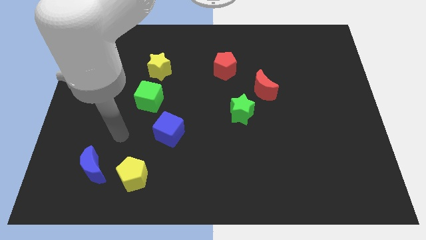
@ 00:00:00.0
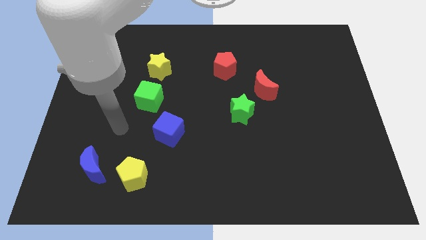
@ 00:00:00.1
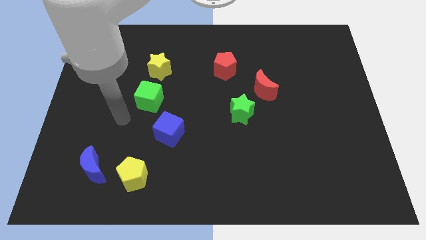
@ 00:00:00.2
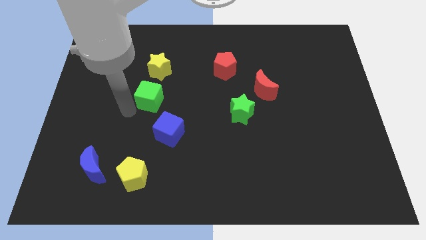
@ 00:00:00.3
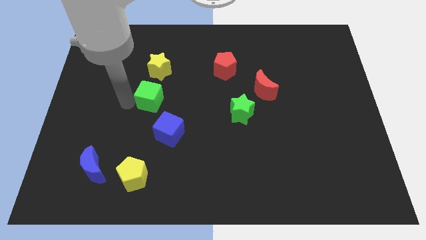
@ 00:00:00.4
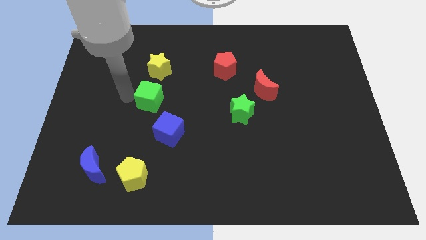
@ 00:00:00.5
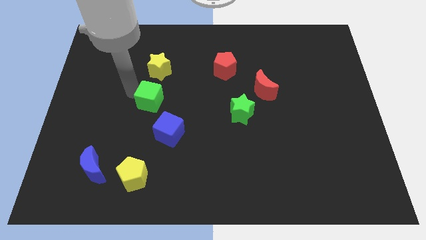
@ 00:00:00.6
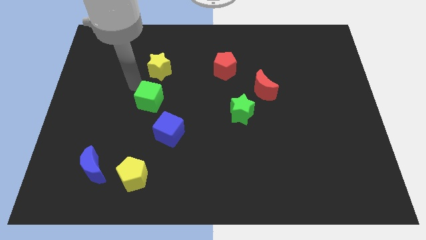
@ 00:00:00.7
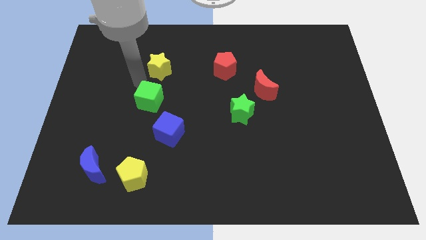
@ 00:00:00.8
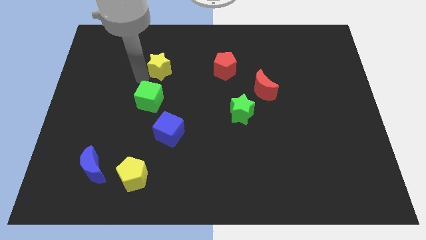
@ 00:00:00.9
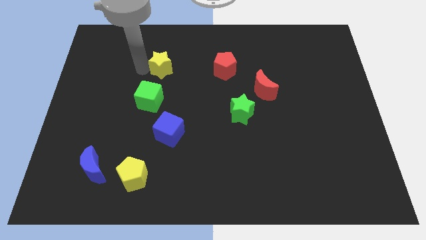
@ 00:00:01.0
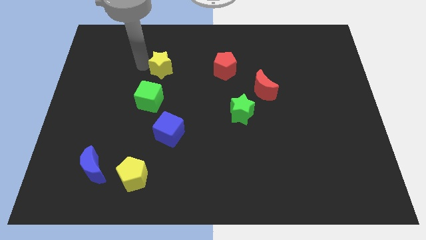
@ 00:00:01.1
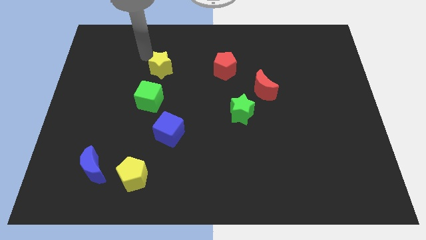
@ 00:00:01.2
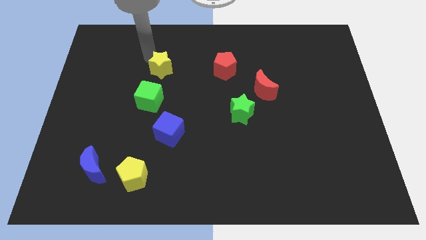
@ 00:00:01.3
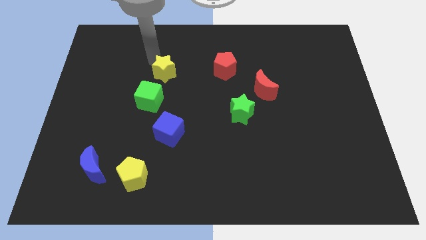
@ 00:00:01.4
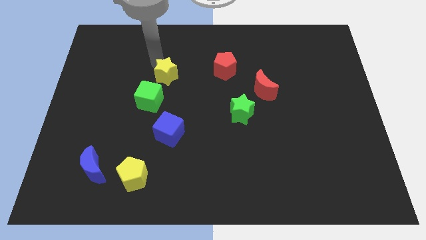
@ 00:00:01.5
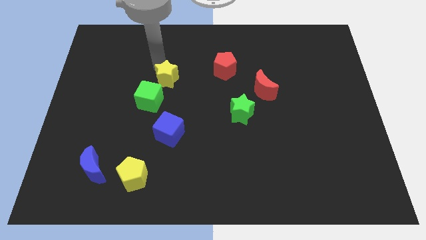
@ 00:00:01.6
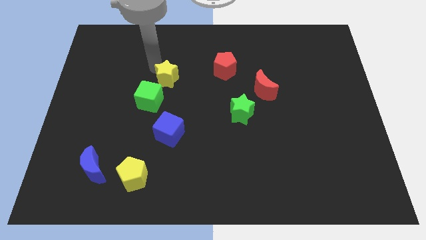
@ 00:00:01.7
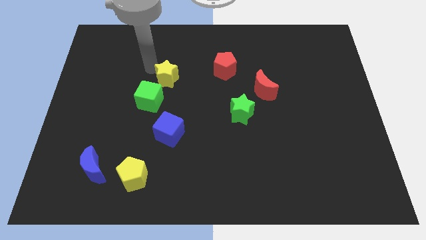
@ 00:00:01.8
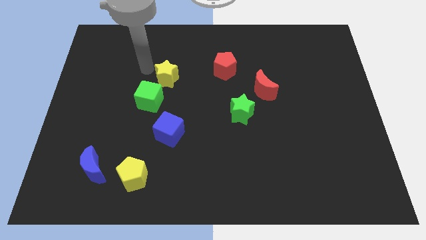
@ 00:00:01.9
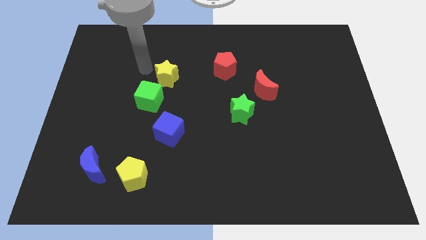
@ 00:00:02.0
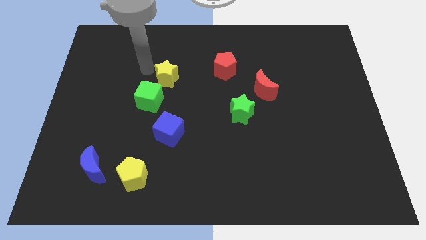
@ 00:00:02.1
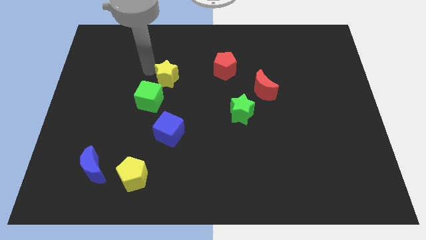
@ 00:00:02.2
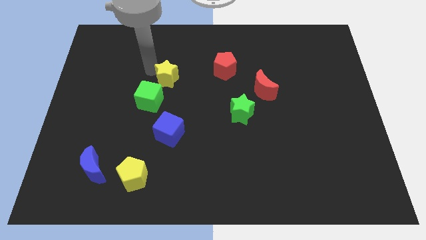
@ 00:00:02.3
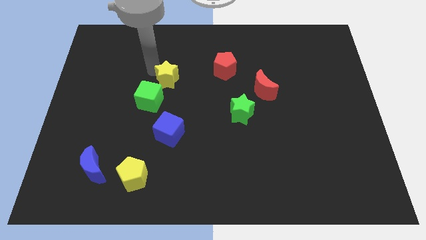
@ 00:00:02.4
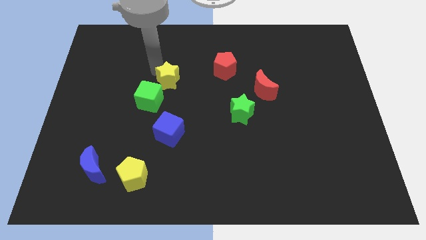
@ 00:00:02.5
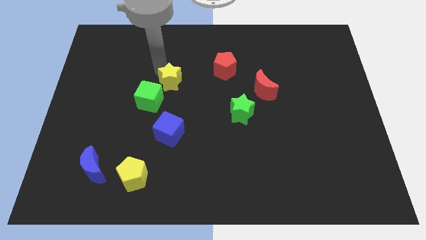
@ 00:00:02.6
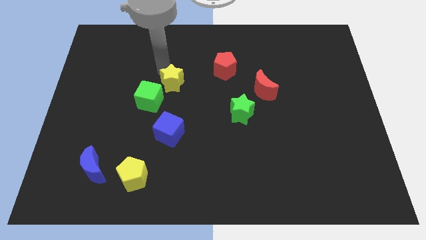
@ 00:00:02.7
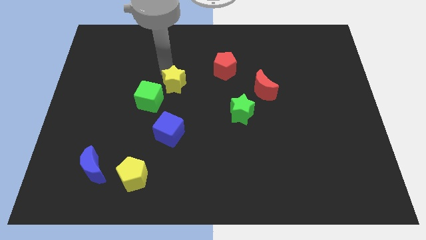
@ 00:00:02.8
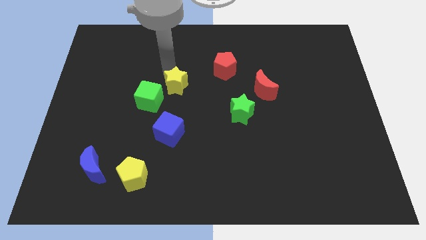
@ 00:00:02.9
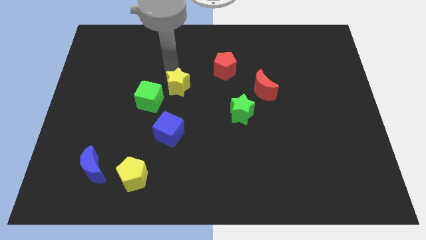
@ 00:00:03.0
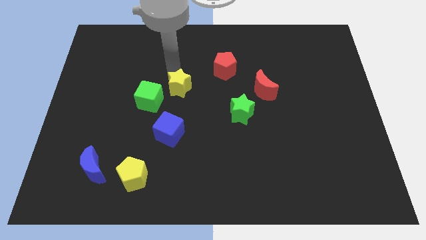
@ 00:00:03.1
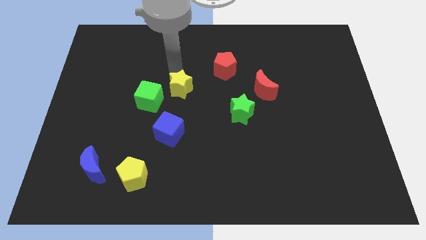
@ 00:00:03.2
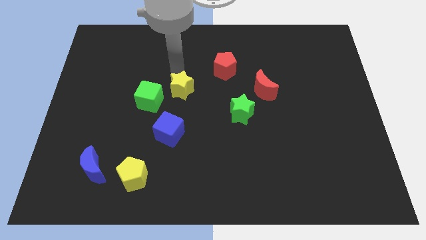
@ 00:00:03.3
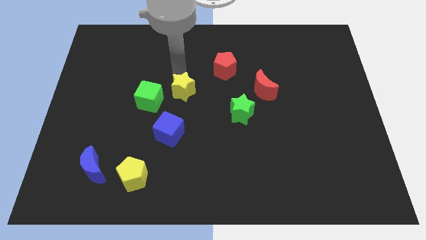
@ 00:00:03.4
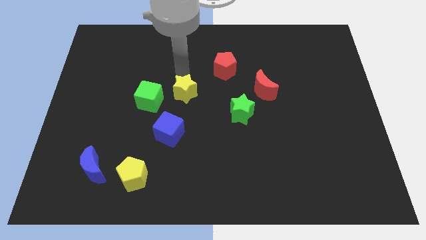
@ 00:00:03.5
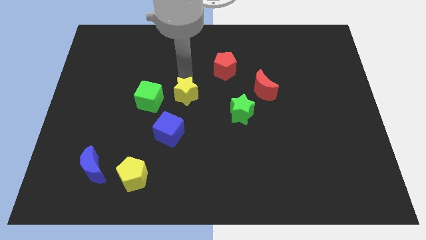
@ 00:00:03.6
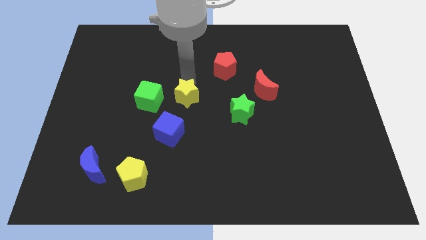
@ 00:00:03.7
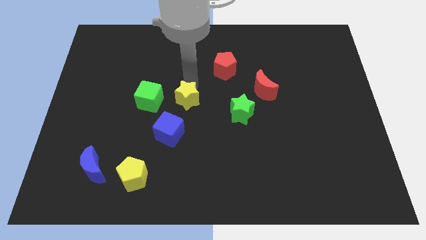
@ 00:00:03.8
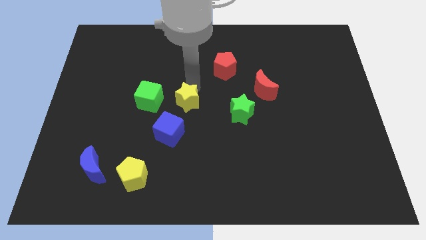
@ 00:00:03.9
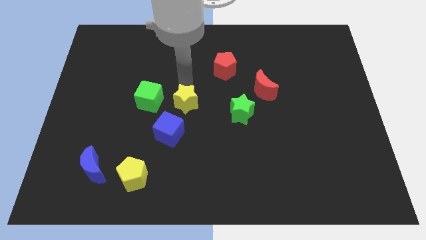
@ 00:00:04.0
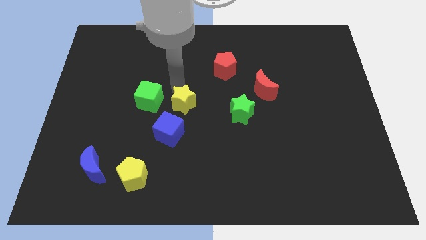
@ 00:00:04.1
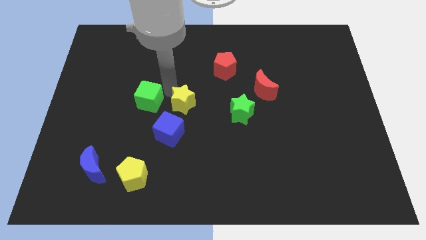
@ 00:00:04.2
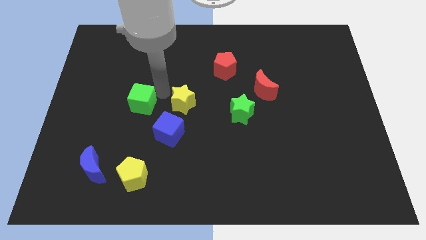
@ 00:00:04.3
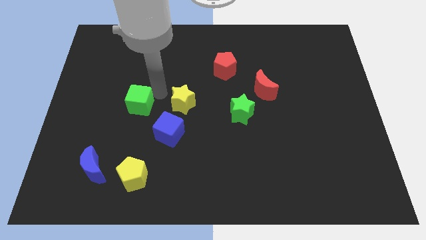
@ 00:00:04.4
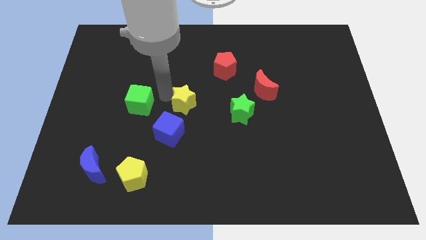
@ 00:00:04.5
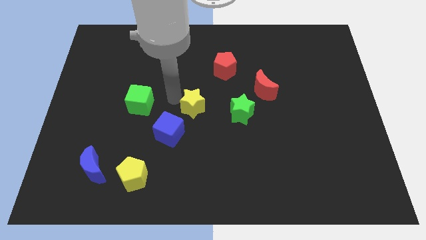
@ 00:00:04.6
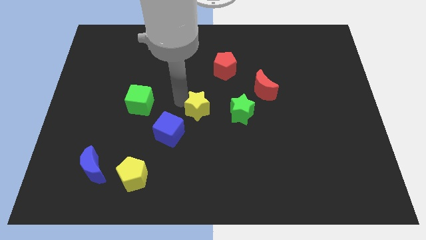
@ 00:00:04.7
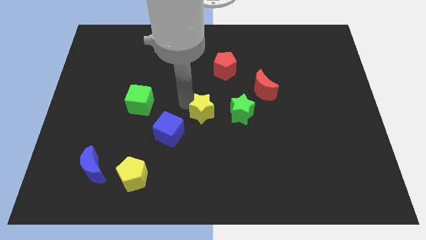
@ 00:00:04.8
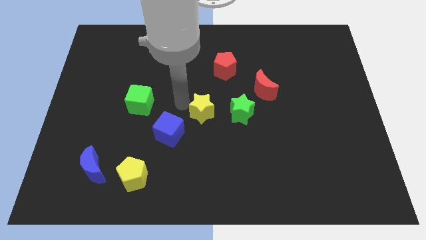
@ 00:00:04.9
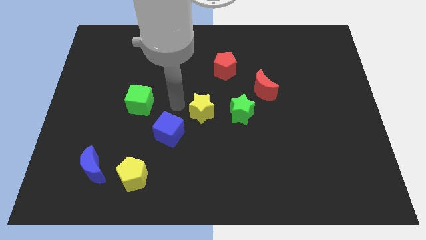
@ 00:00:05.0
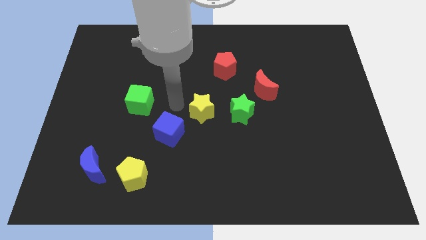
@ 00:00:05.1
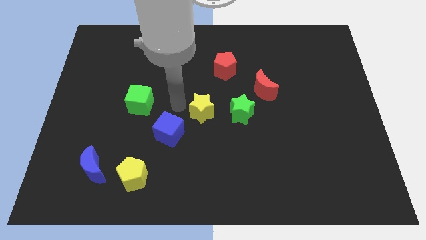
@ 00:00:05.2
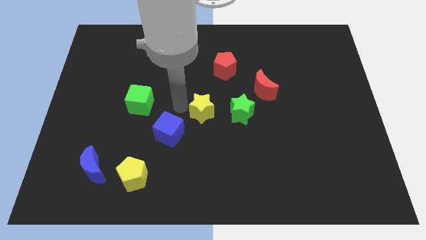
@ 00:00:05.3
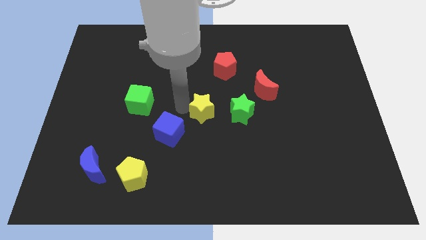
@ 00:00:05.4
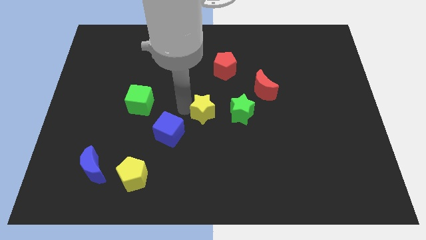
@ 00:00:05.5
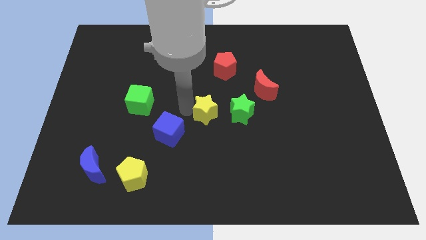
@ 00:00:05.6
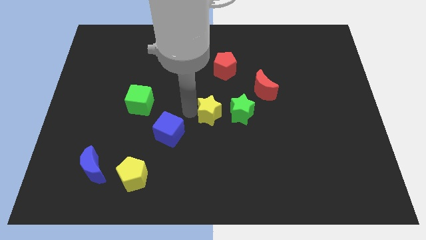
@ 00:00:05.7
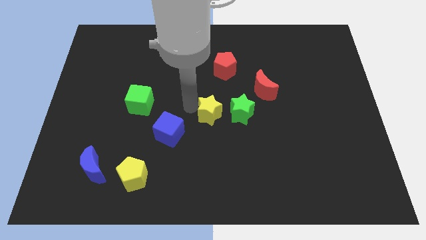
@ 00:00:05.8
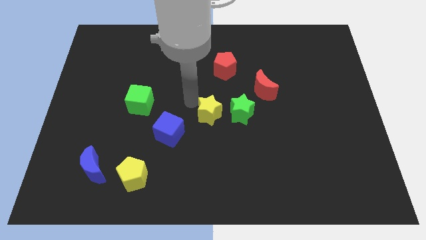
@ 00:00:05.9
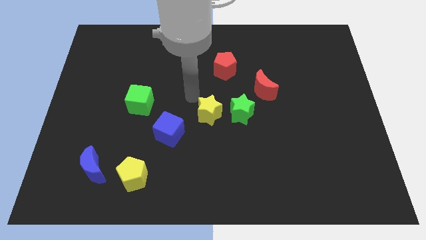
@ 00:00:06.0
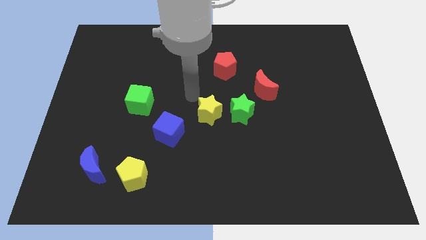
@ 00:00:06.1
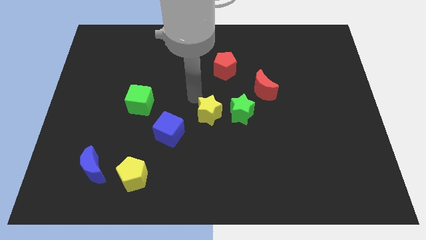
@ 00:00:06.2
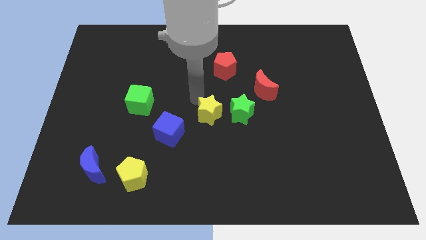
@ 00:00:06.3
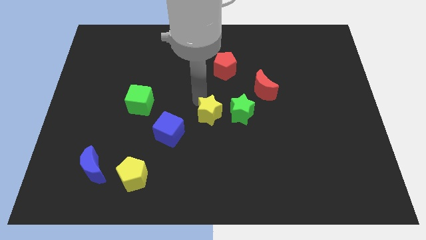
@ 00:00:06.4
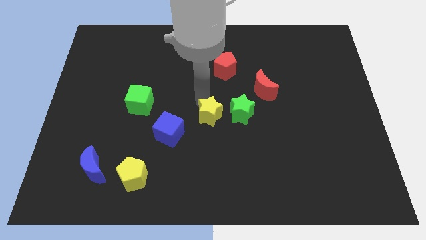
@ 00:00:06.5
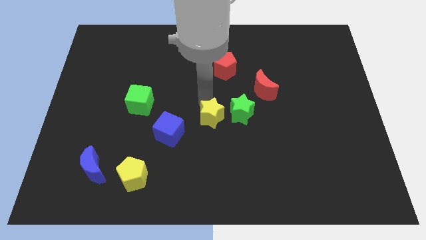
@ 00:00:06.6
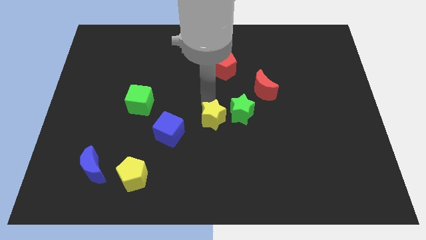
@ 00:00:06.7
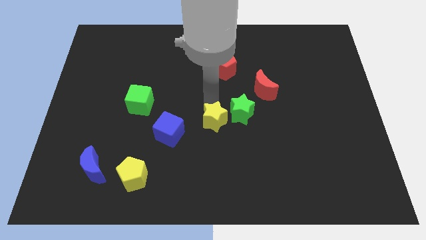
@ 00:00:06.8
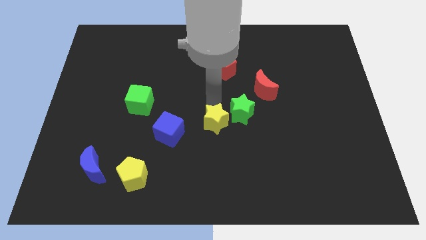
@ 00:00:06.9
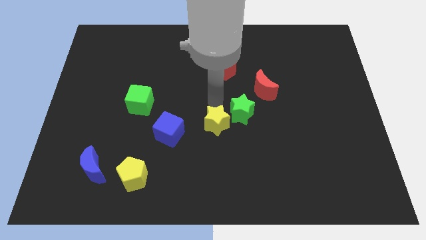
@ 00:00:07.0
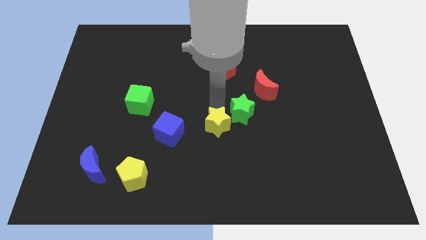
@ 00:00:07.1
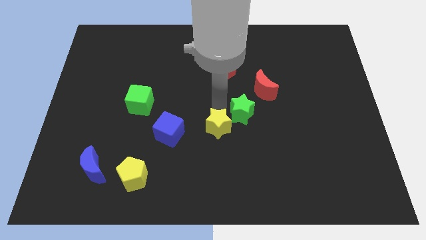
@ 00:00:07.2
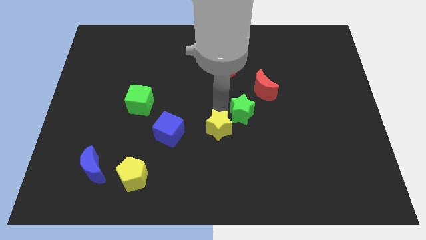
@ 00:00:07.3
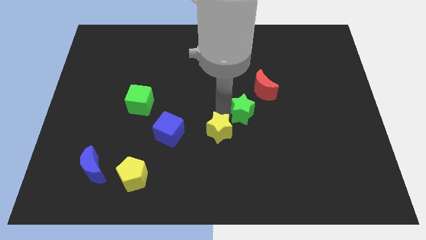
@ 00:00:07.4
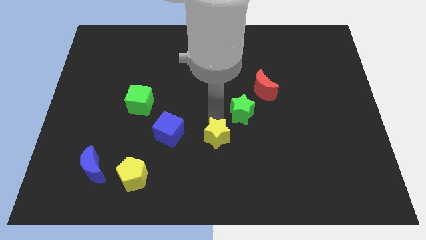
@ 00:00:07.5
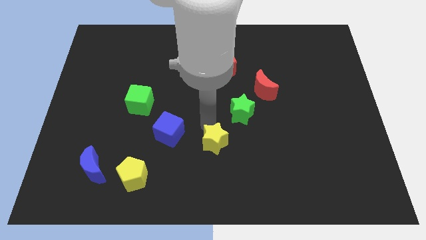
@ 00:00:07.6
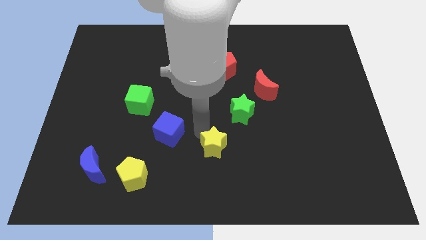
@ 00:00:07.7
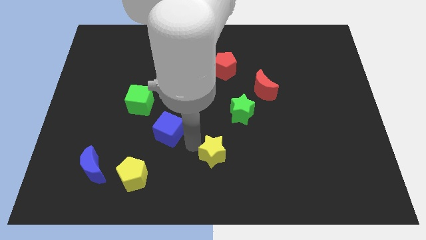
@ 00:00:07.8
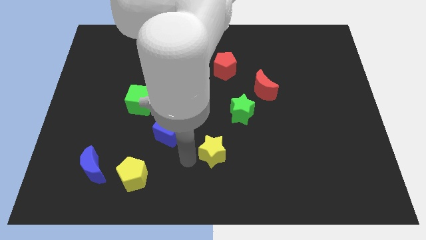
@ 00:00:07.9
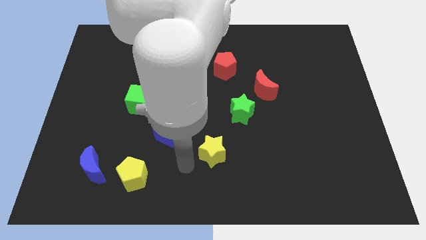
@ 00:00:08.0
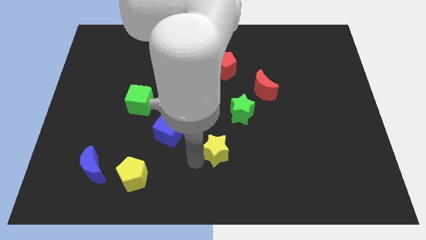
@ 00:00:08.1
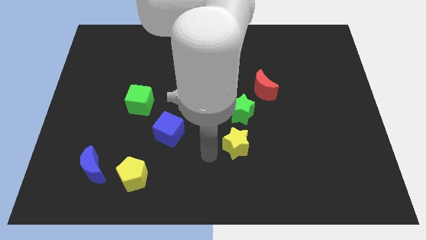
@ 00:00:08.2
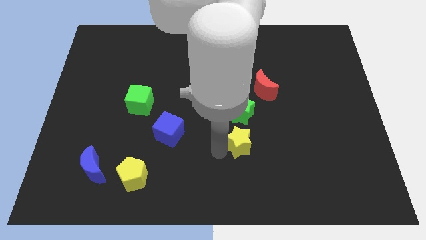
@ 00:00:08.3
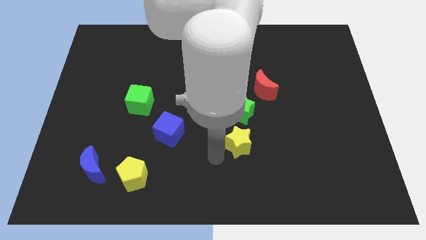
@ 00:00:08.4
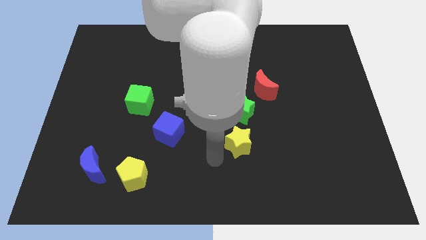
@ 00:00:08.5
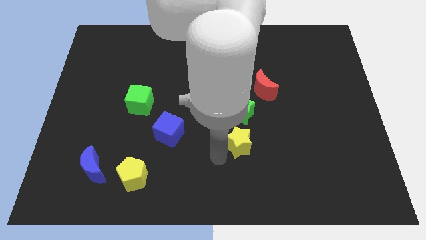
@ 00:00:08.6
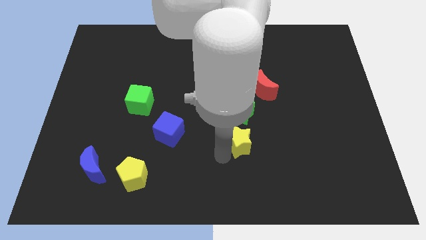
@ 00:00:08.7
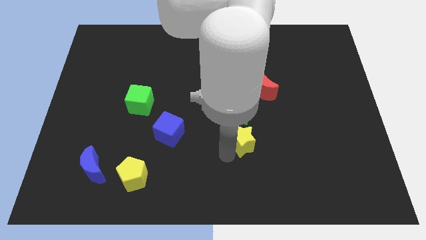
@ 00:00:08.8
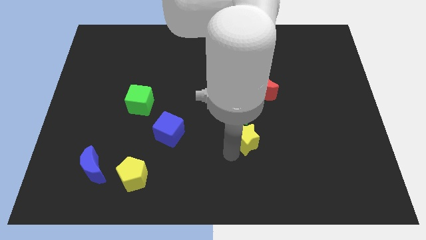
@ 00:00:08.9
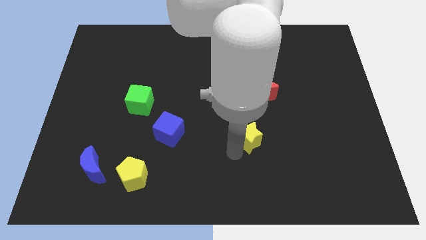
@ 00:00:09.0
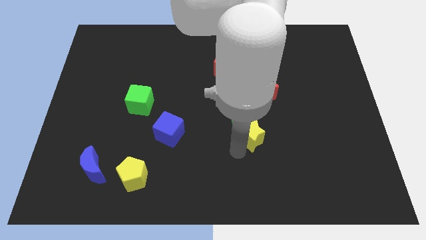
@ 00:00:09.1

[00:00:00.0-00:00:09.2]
put the yellow star to the bottom side of the red moon
